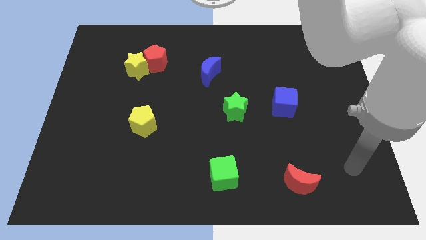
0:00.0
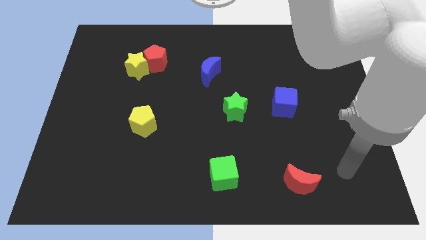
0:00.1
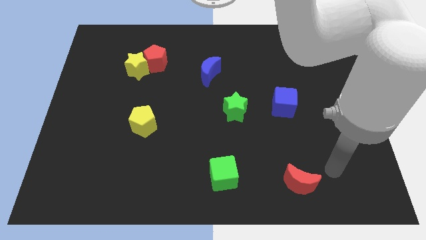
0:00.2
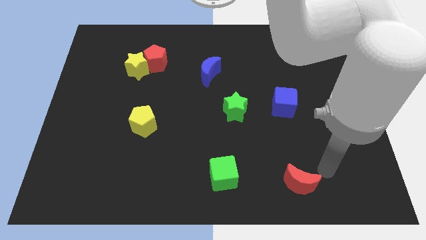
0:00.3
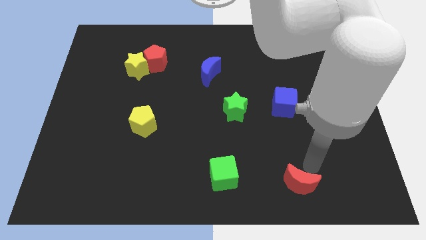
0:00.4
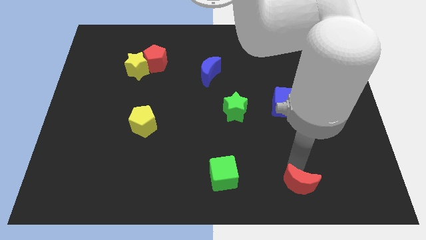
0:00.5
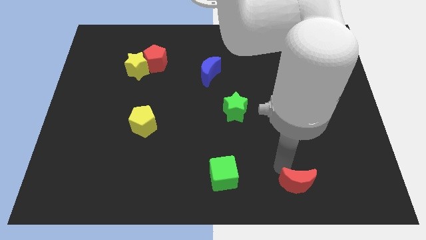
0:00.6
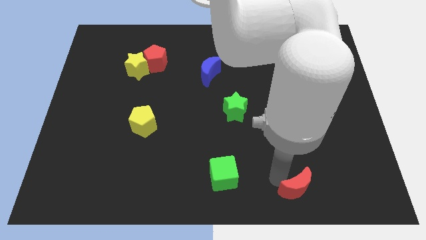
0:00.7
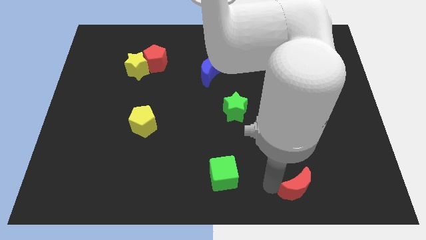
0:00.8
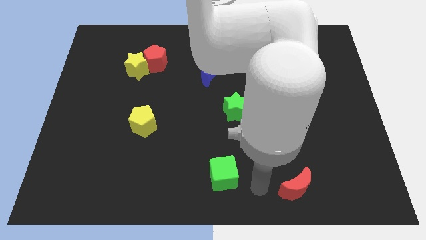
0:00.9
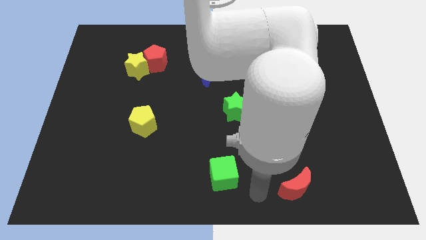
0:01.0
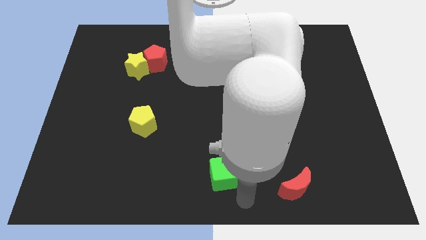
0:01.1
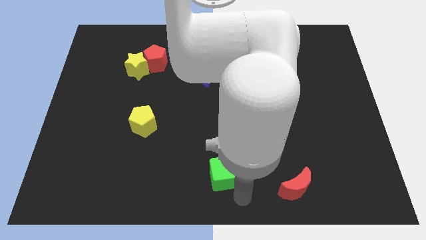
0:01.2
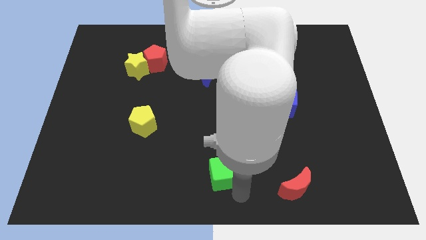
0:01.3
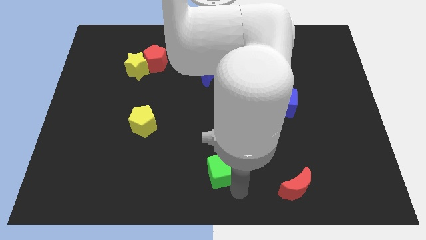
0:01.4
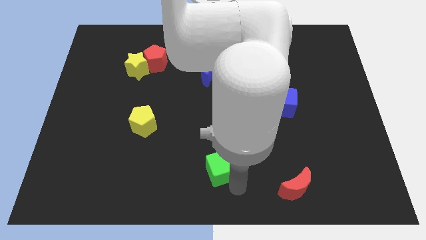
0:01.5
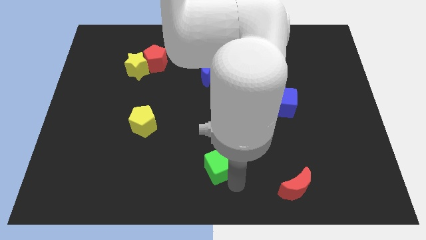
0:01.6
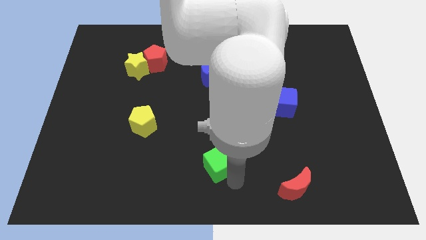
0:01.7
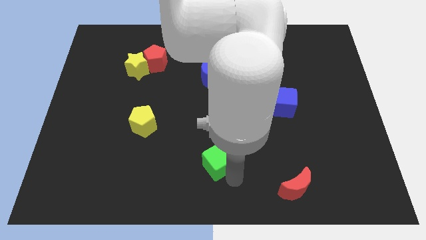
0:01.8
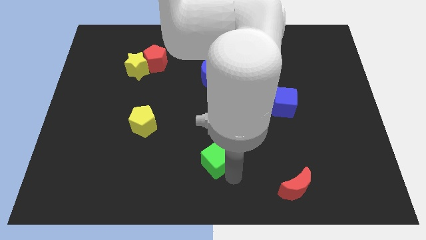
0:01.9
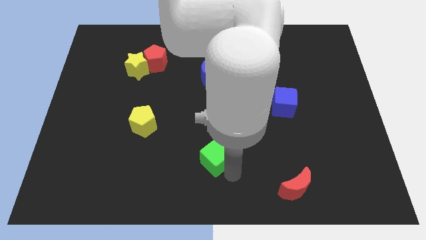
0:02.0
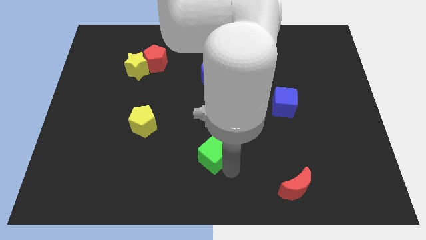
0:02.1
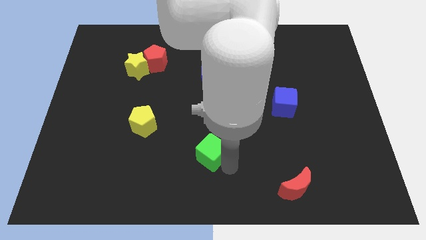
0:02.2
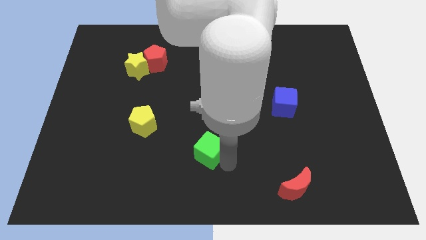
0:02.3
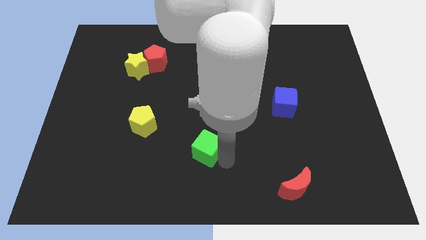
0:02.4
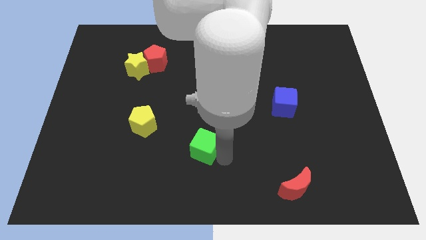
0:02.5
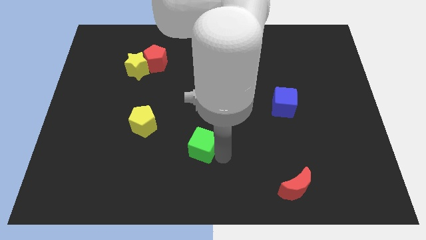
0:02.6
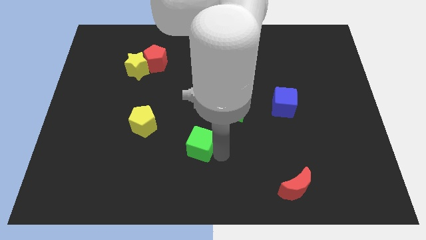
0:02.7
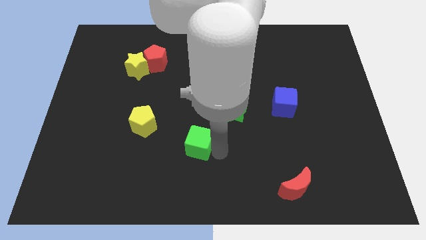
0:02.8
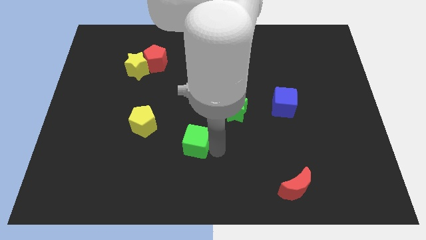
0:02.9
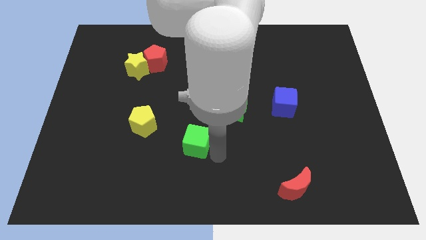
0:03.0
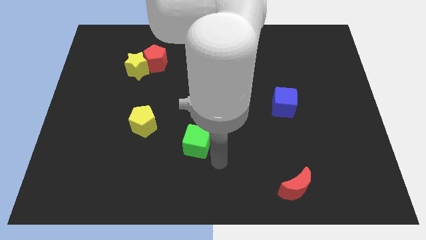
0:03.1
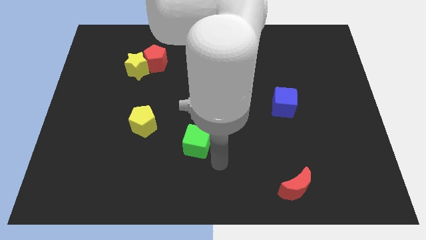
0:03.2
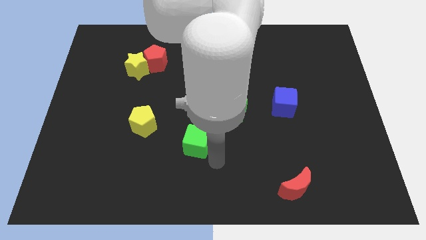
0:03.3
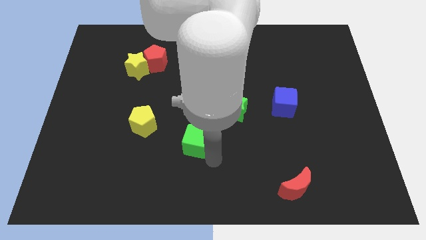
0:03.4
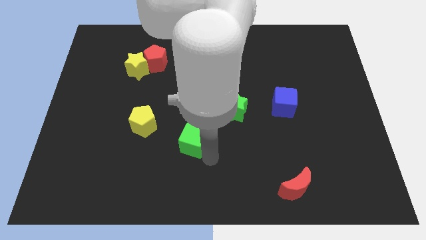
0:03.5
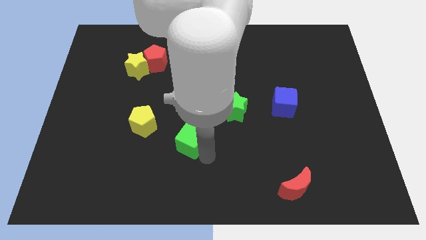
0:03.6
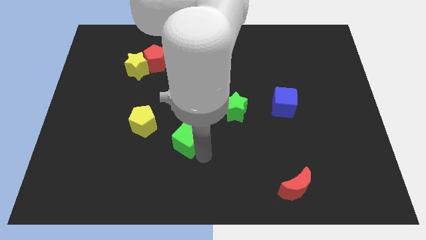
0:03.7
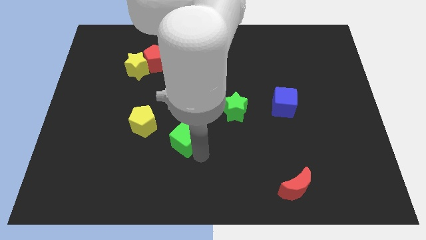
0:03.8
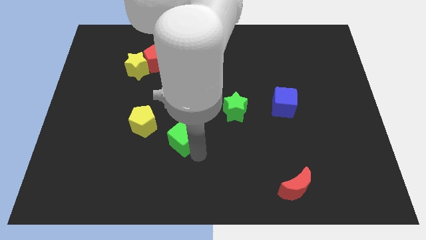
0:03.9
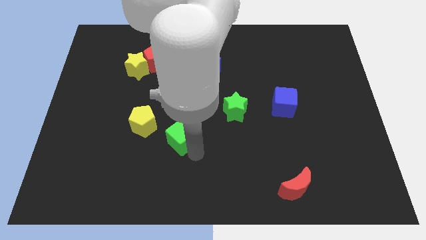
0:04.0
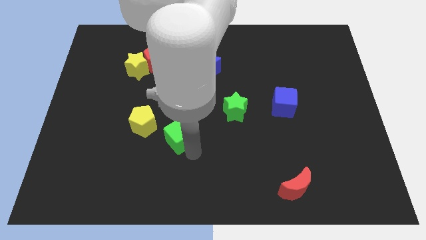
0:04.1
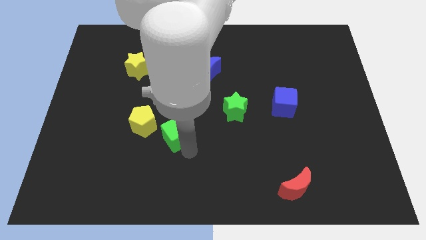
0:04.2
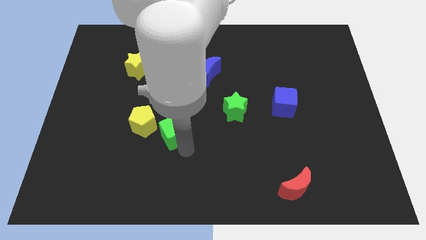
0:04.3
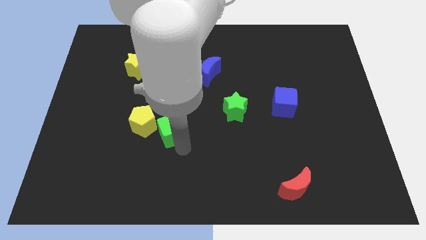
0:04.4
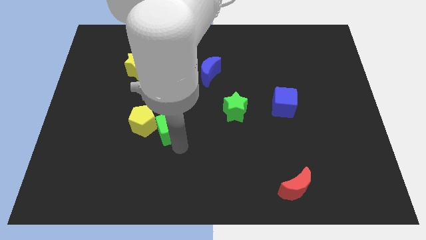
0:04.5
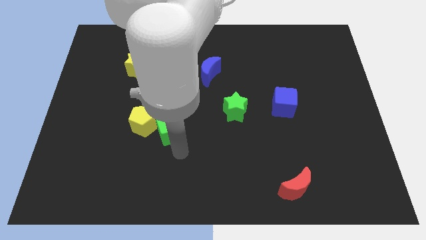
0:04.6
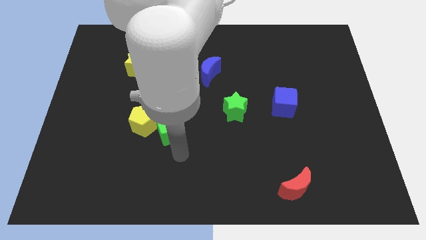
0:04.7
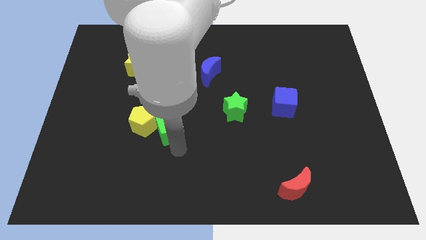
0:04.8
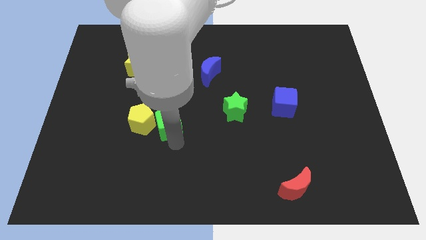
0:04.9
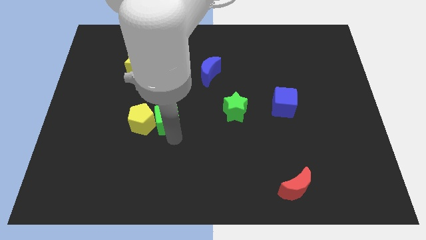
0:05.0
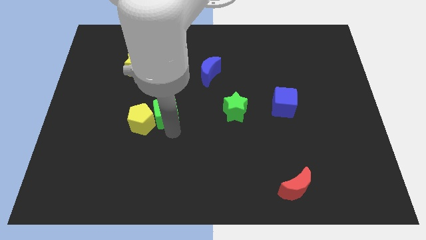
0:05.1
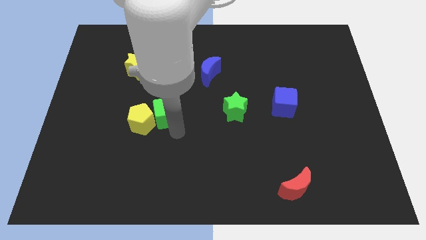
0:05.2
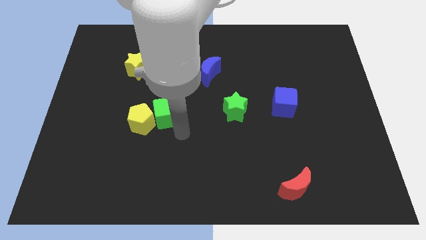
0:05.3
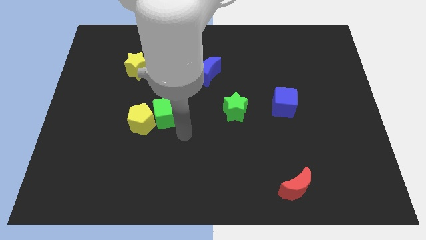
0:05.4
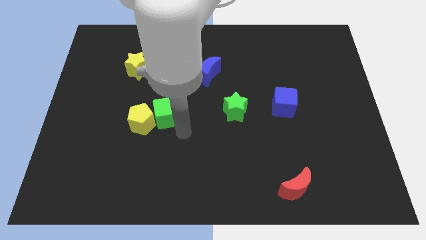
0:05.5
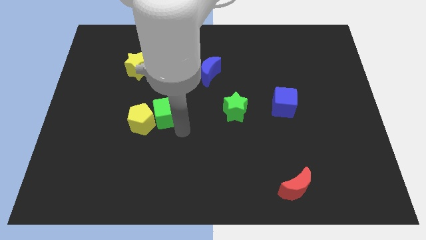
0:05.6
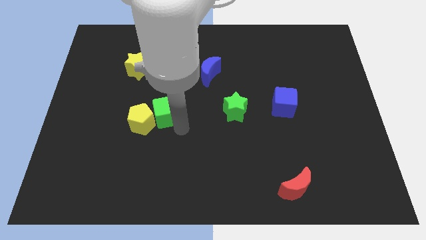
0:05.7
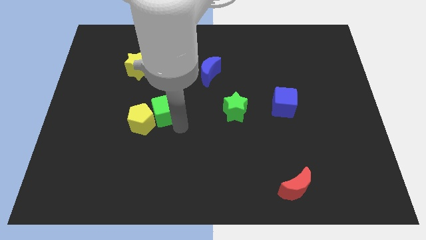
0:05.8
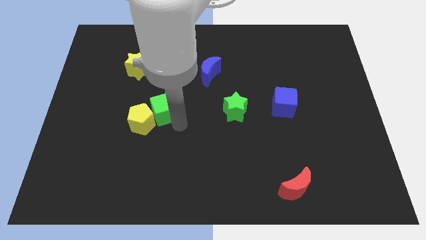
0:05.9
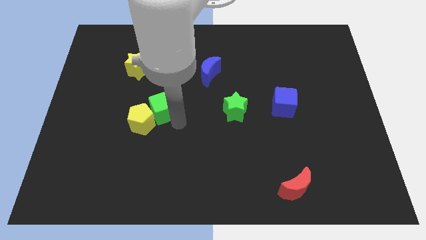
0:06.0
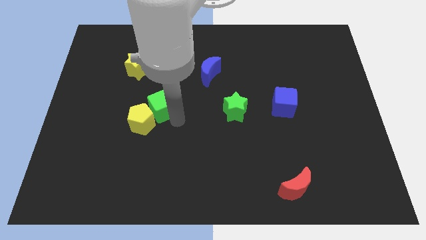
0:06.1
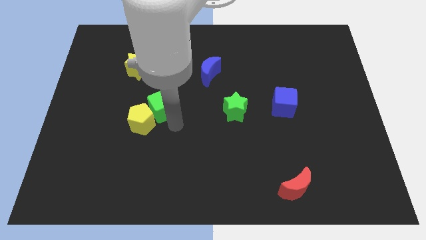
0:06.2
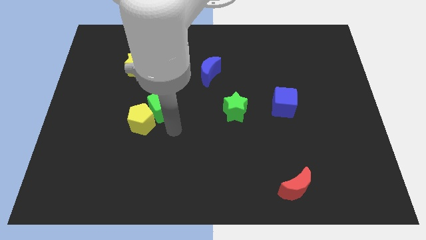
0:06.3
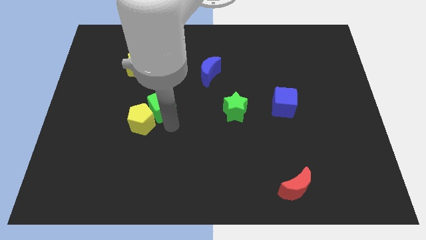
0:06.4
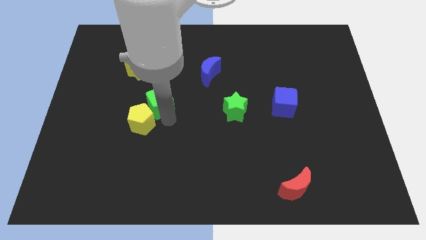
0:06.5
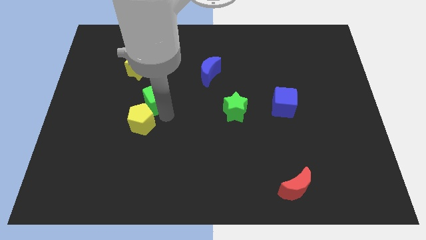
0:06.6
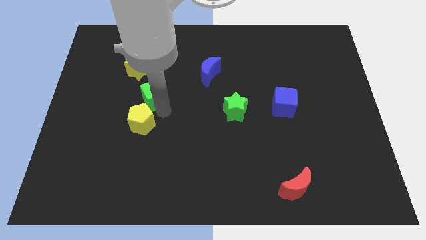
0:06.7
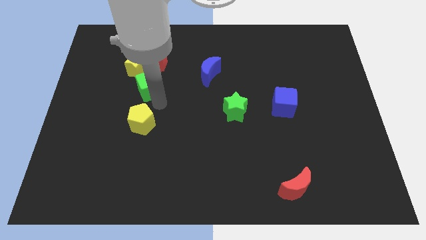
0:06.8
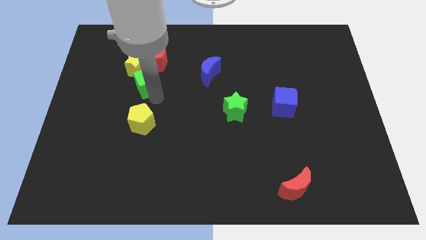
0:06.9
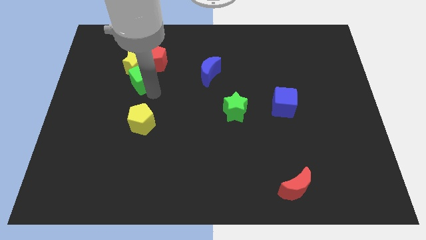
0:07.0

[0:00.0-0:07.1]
put the green cube next to the yellow star

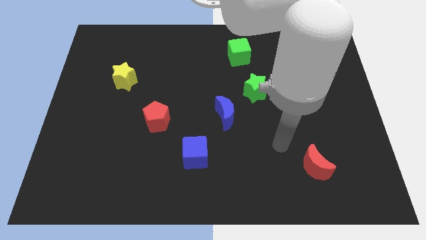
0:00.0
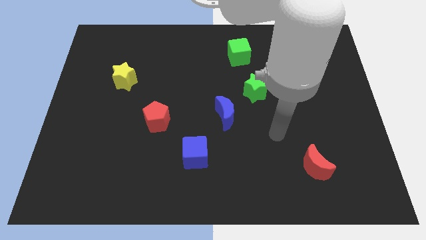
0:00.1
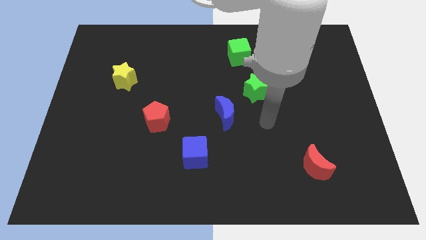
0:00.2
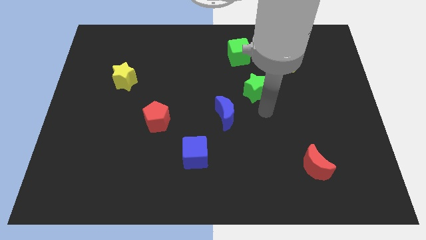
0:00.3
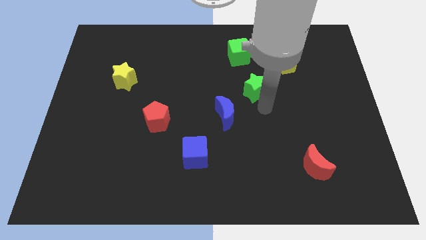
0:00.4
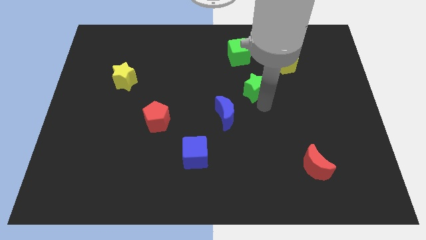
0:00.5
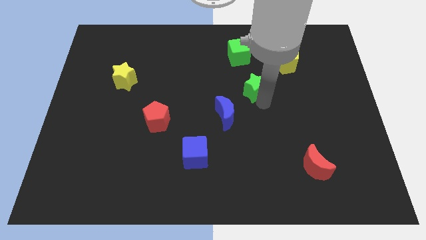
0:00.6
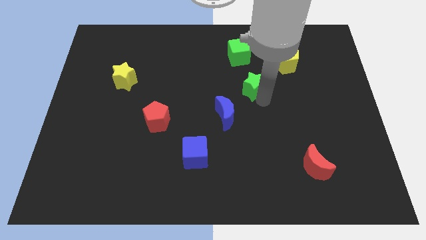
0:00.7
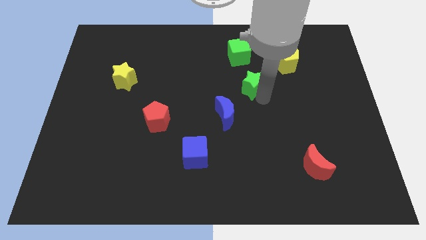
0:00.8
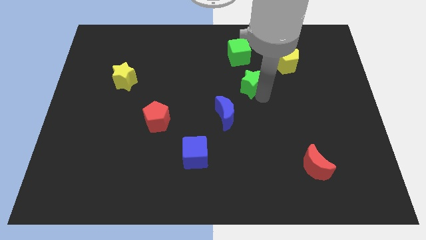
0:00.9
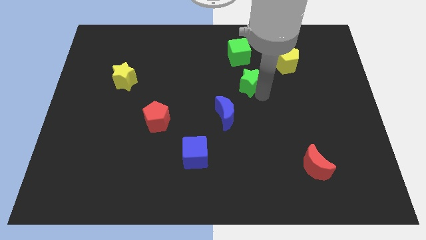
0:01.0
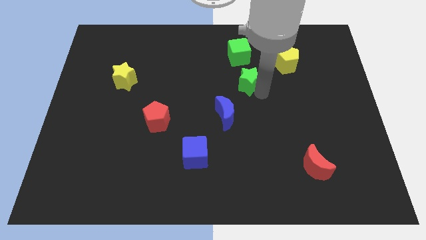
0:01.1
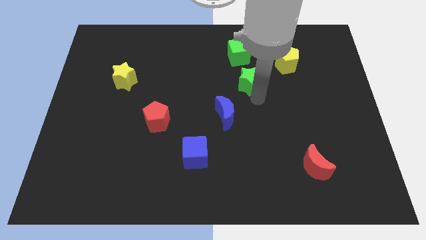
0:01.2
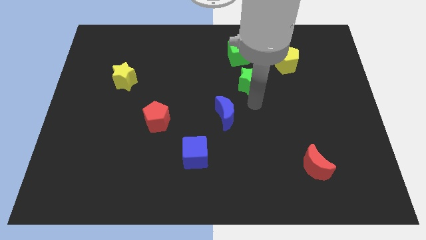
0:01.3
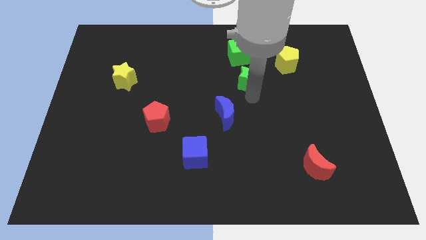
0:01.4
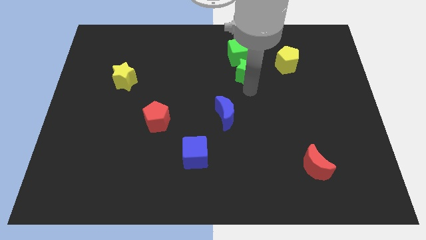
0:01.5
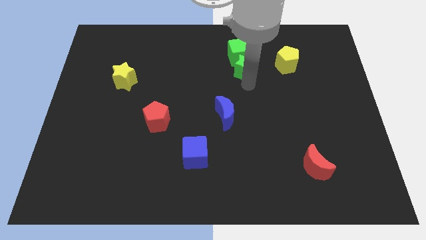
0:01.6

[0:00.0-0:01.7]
push the green star to the green cube
